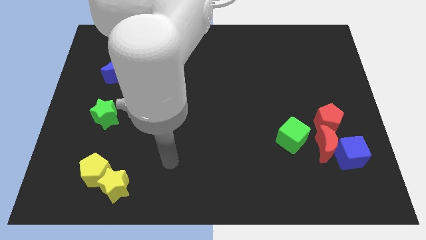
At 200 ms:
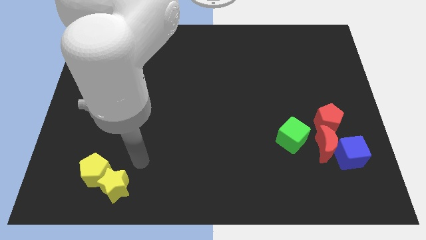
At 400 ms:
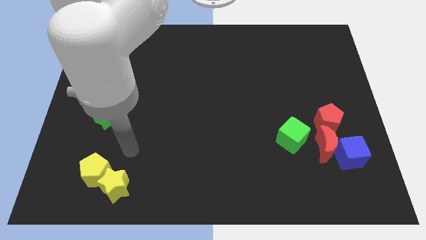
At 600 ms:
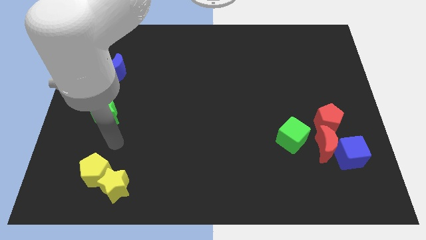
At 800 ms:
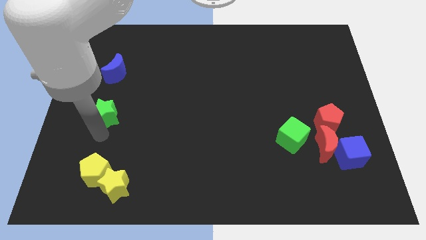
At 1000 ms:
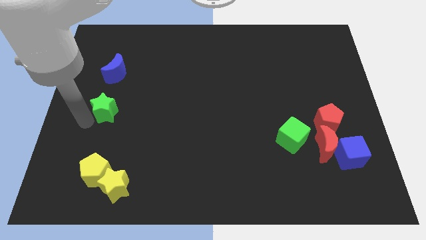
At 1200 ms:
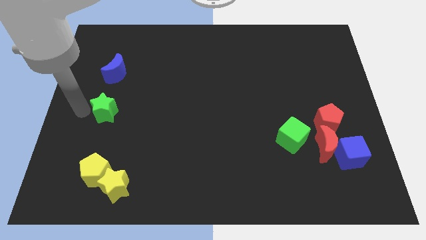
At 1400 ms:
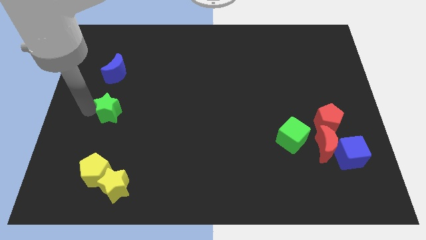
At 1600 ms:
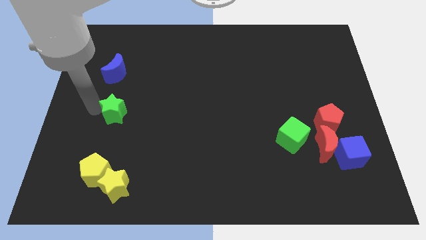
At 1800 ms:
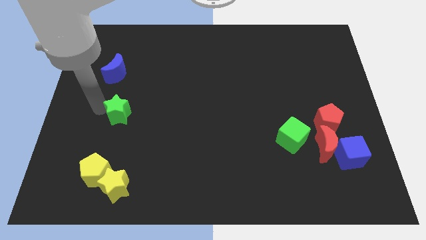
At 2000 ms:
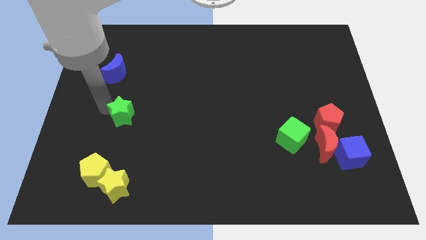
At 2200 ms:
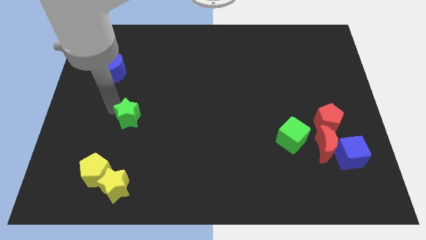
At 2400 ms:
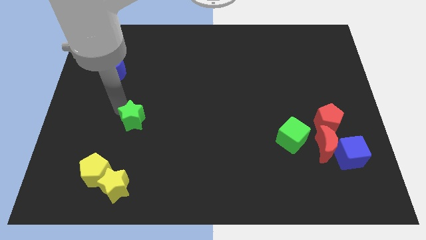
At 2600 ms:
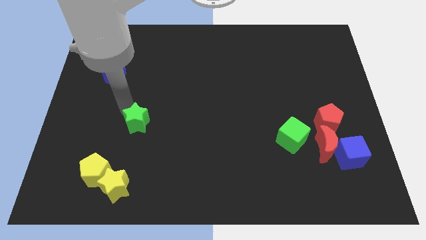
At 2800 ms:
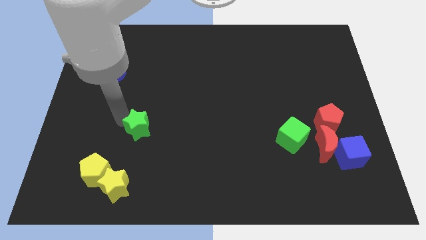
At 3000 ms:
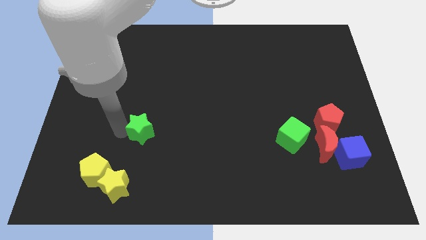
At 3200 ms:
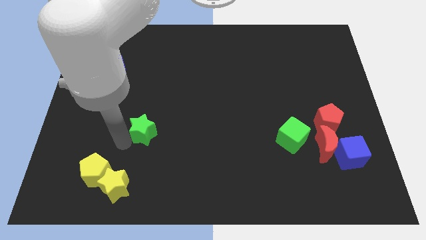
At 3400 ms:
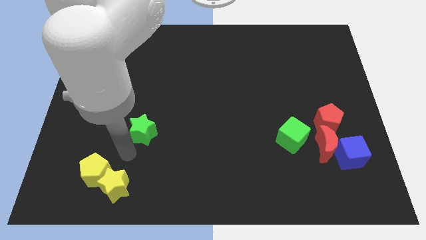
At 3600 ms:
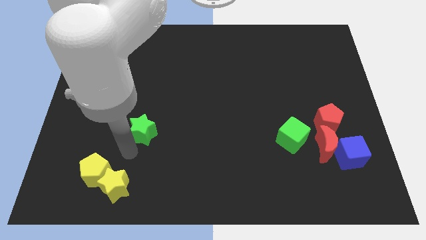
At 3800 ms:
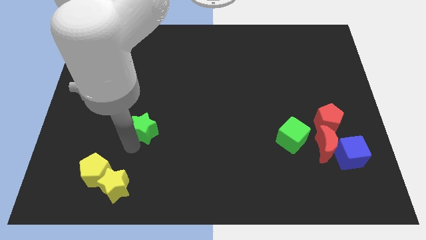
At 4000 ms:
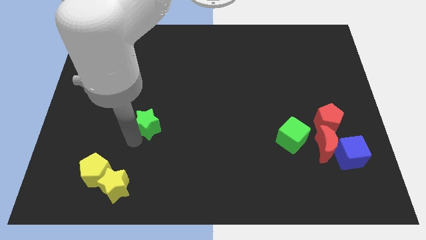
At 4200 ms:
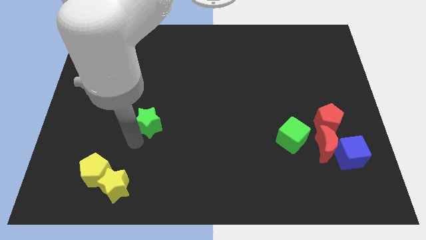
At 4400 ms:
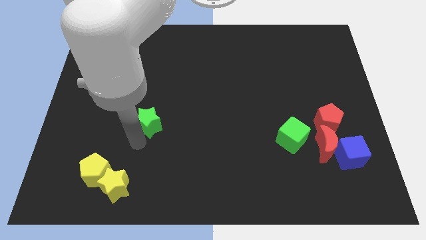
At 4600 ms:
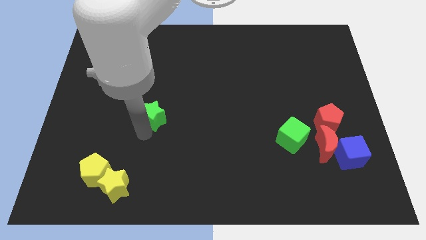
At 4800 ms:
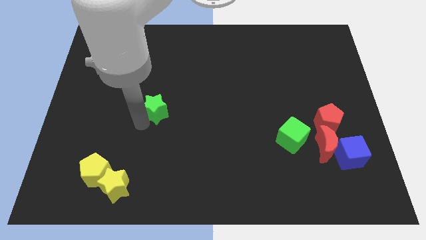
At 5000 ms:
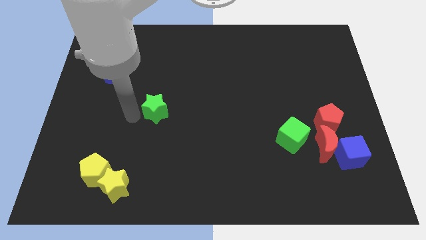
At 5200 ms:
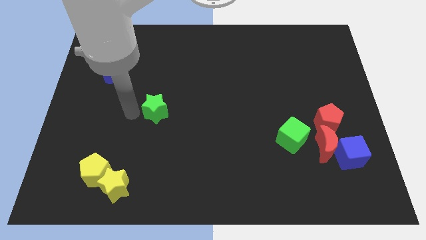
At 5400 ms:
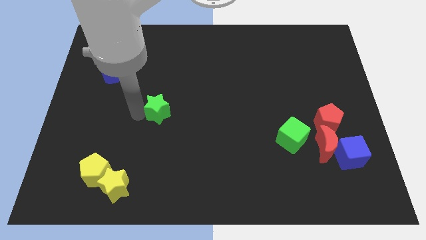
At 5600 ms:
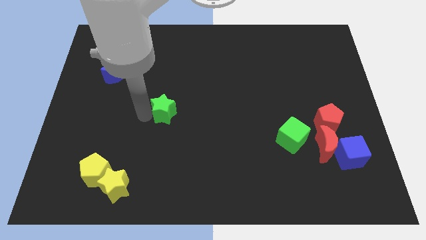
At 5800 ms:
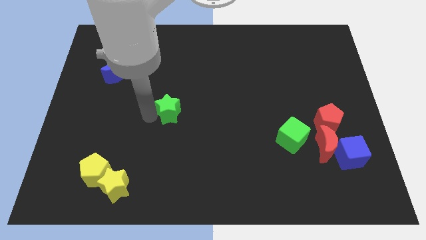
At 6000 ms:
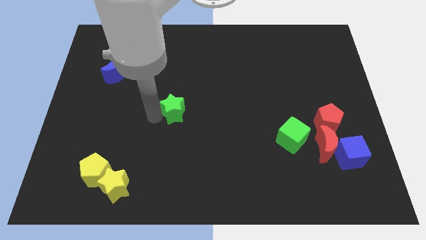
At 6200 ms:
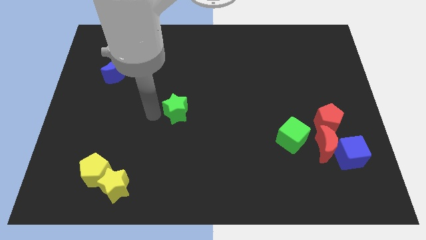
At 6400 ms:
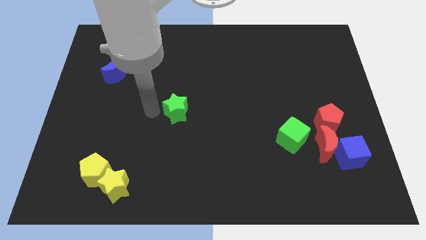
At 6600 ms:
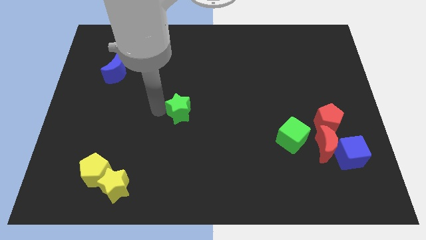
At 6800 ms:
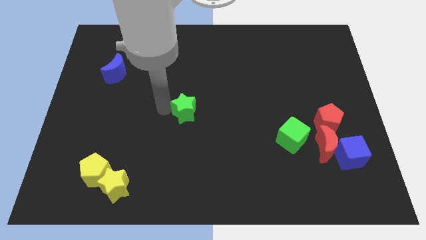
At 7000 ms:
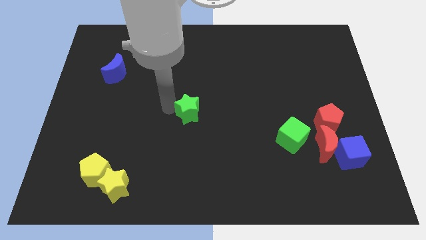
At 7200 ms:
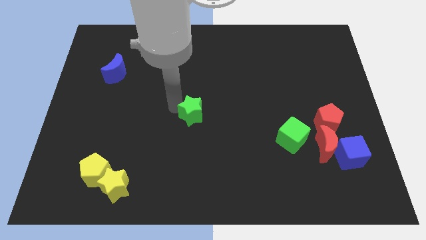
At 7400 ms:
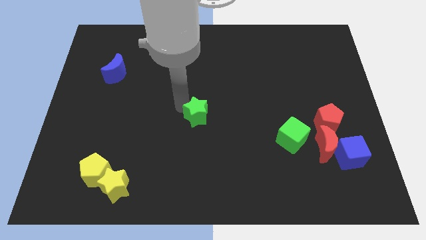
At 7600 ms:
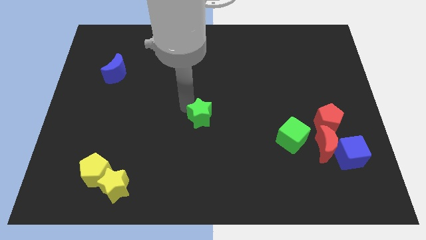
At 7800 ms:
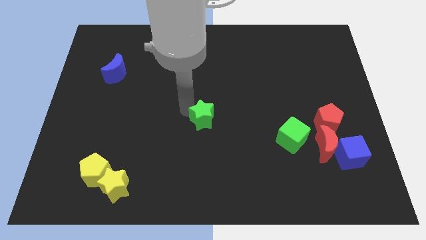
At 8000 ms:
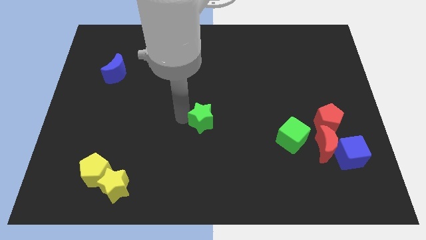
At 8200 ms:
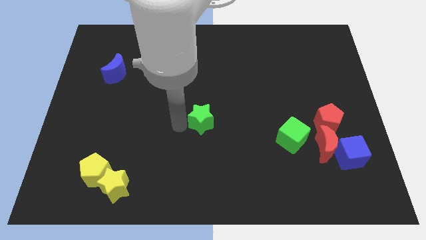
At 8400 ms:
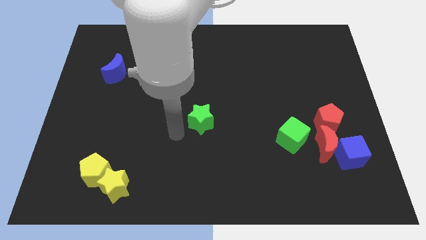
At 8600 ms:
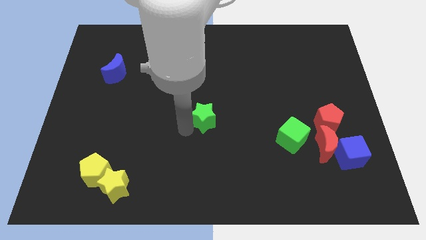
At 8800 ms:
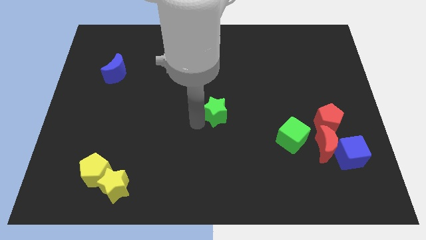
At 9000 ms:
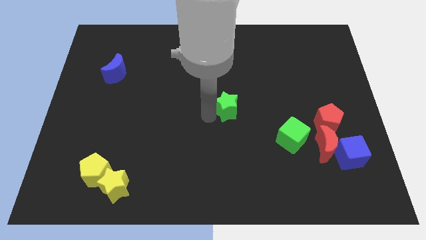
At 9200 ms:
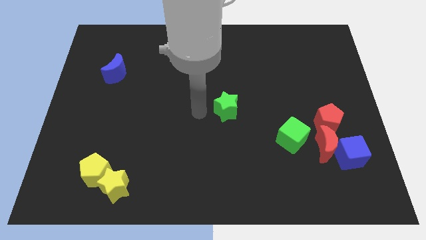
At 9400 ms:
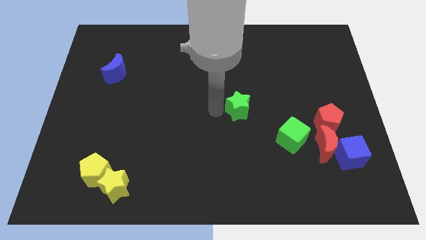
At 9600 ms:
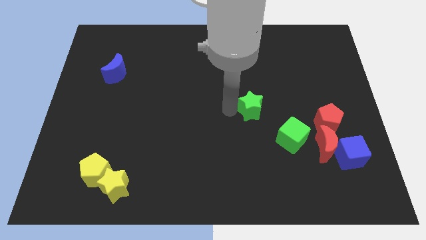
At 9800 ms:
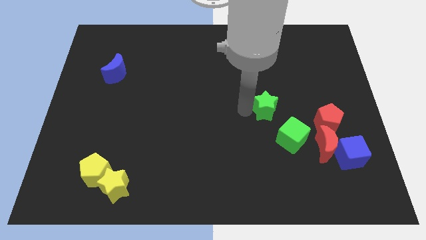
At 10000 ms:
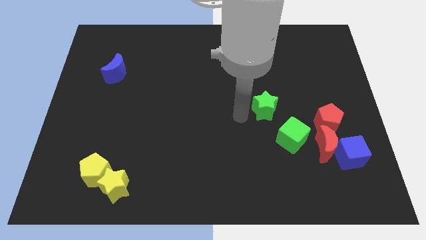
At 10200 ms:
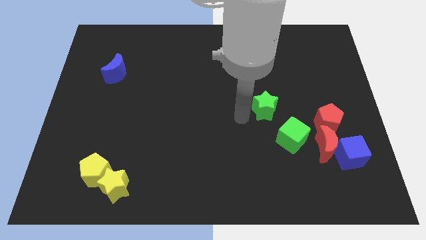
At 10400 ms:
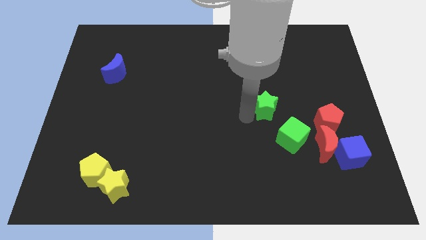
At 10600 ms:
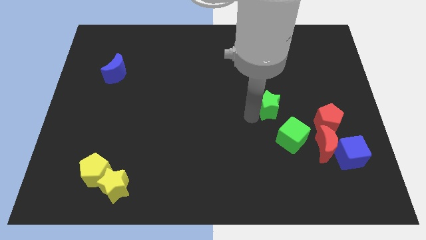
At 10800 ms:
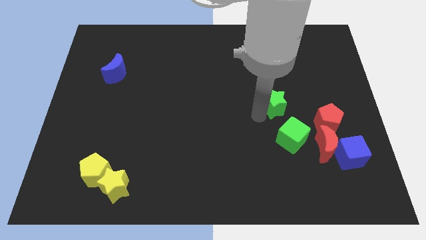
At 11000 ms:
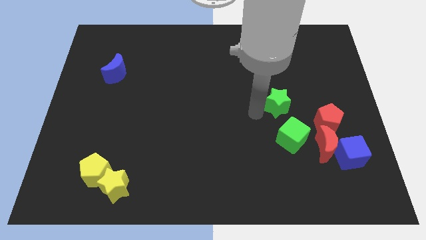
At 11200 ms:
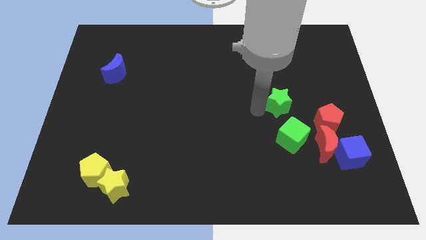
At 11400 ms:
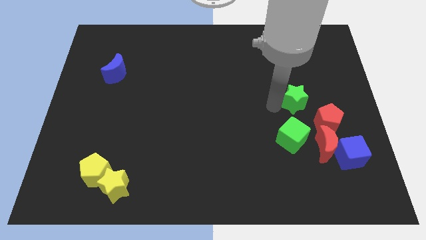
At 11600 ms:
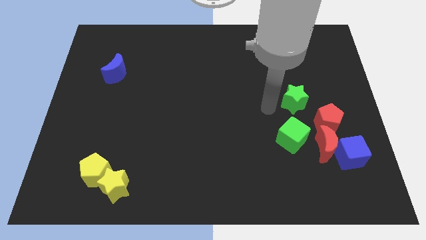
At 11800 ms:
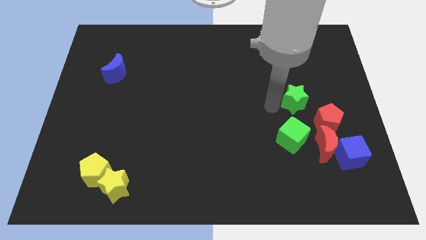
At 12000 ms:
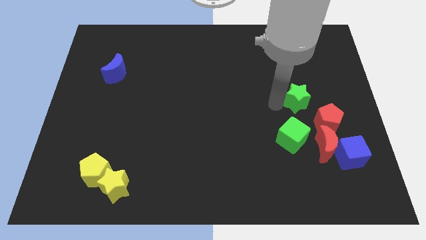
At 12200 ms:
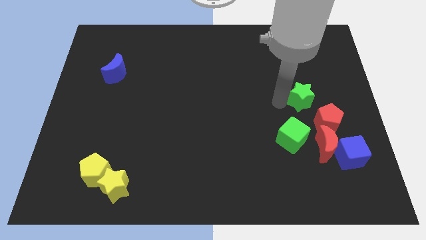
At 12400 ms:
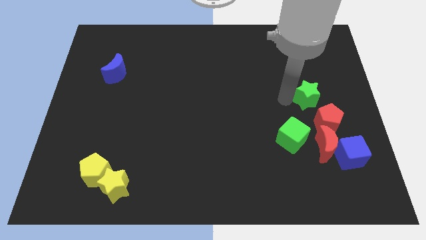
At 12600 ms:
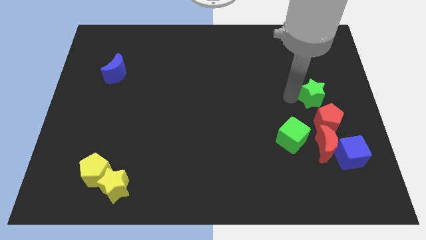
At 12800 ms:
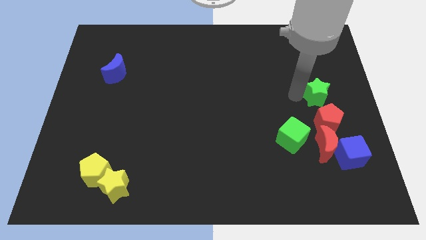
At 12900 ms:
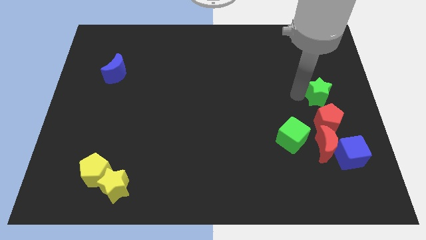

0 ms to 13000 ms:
move the green star to the right side
